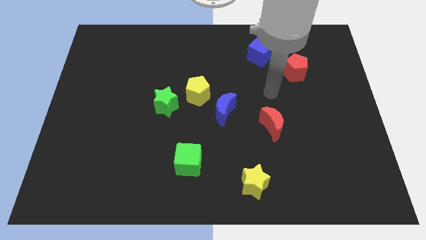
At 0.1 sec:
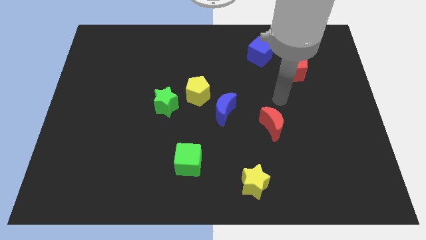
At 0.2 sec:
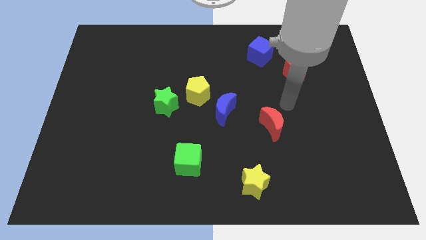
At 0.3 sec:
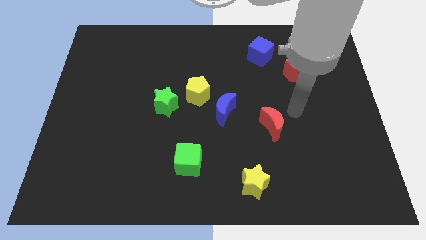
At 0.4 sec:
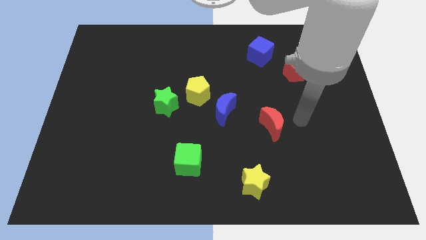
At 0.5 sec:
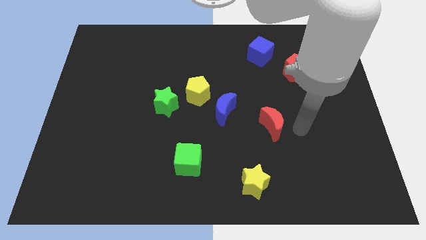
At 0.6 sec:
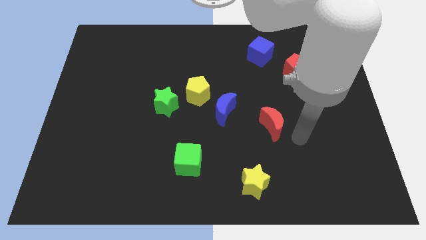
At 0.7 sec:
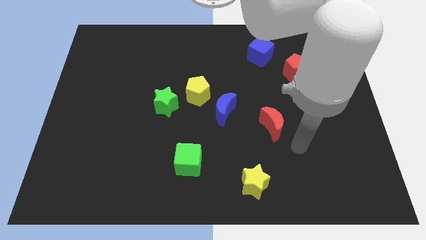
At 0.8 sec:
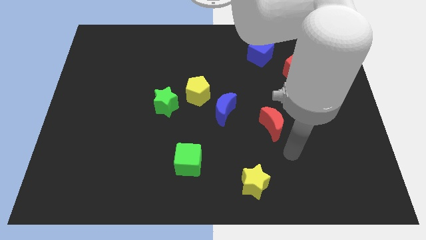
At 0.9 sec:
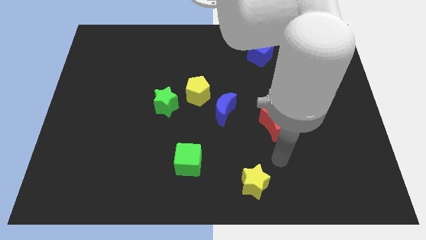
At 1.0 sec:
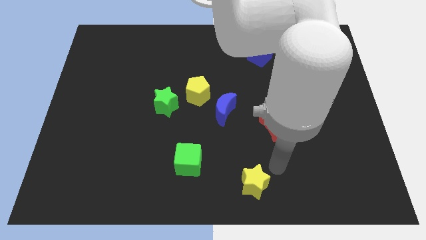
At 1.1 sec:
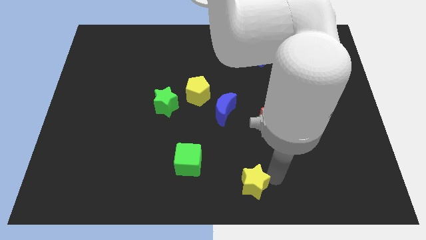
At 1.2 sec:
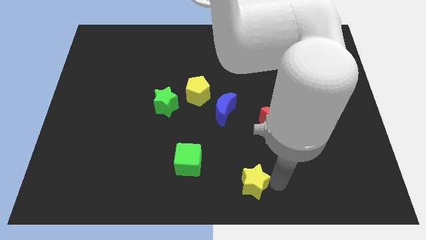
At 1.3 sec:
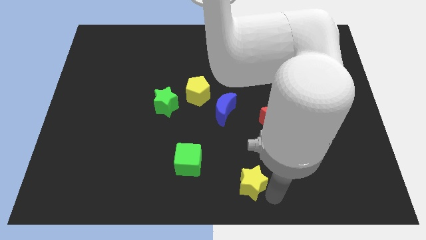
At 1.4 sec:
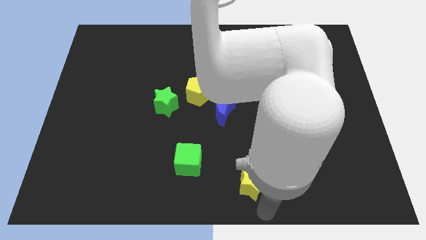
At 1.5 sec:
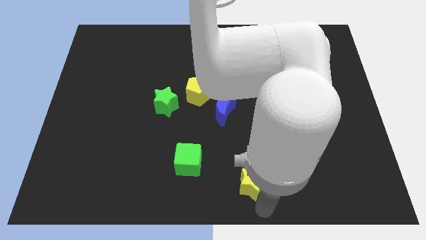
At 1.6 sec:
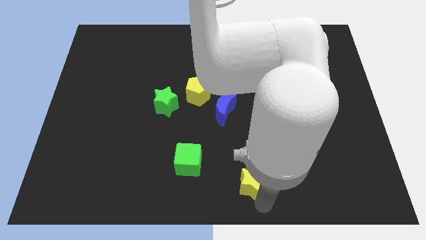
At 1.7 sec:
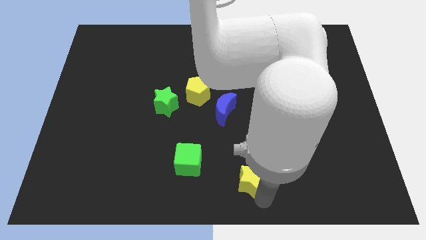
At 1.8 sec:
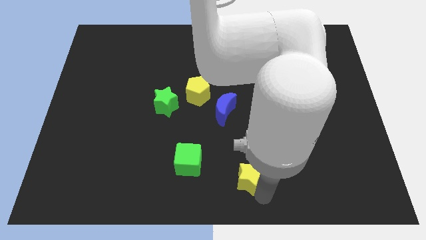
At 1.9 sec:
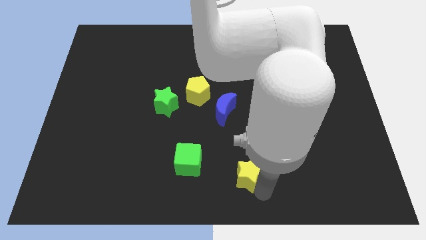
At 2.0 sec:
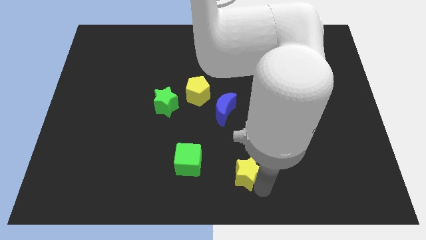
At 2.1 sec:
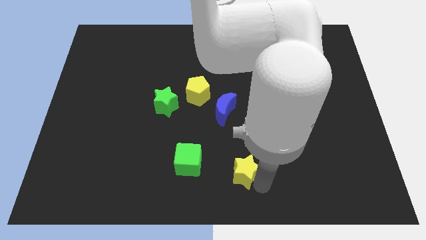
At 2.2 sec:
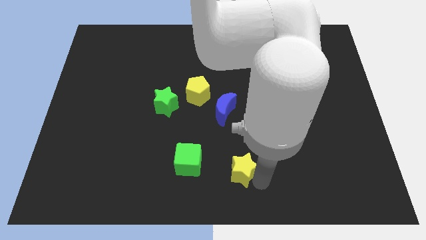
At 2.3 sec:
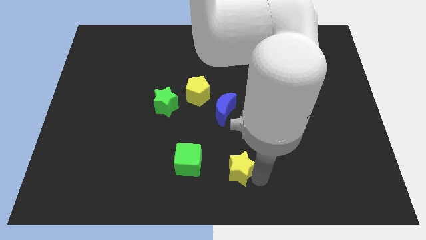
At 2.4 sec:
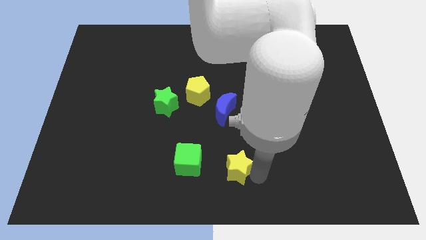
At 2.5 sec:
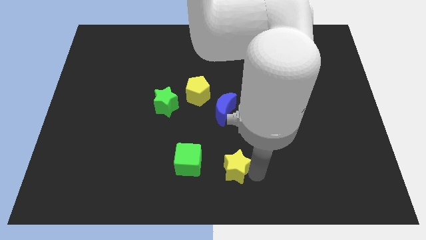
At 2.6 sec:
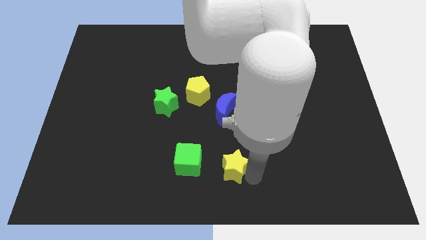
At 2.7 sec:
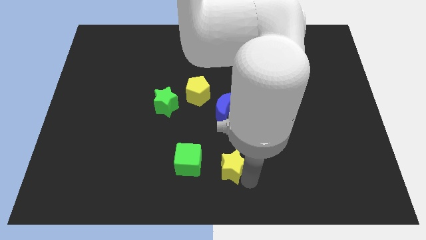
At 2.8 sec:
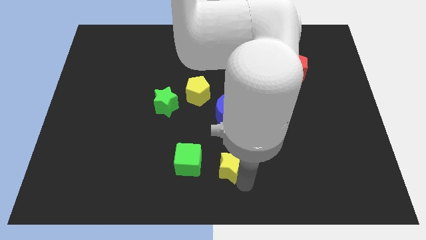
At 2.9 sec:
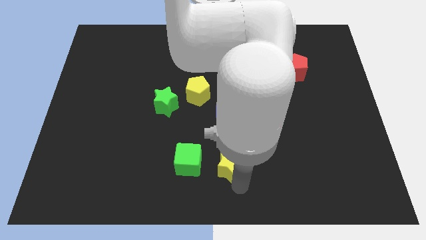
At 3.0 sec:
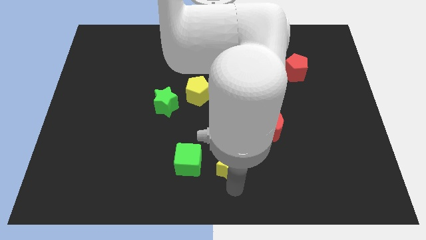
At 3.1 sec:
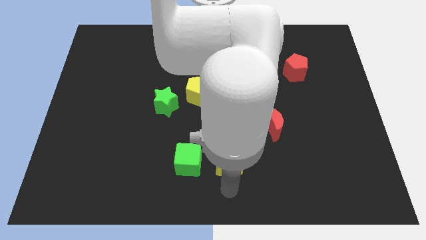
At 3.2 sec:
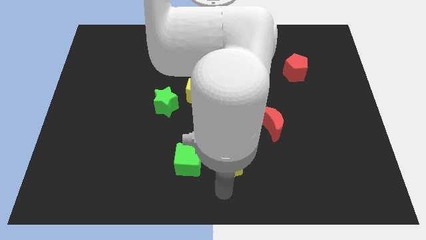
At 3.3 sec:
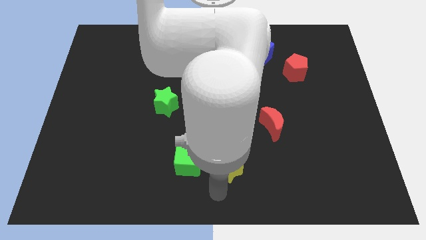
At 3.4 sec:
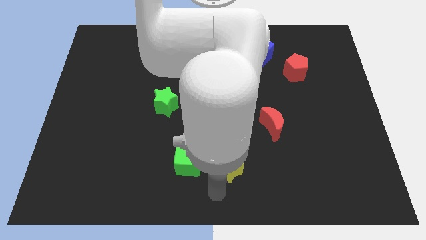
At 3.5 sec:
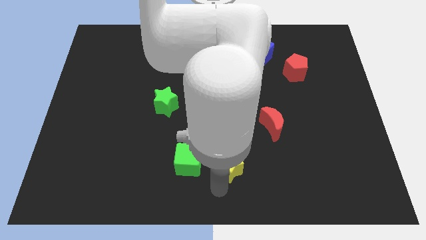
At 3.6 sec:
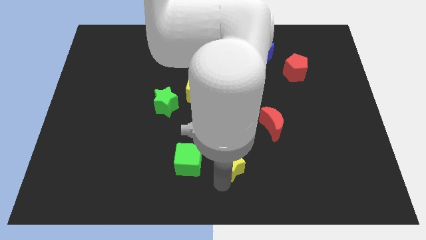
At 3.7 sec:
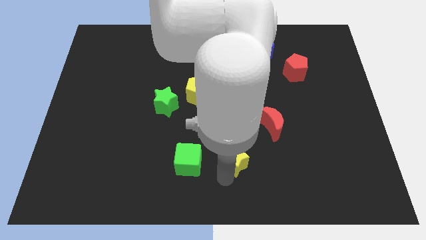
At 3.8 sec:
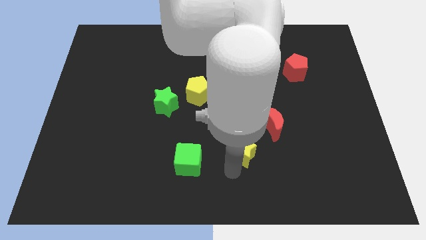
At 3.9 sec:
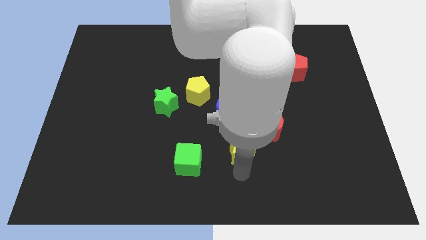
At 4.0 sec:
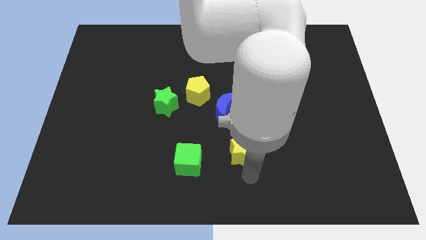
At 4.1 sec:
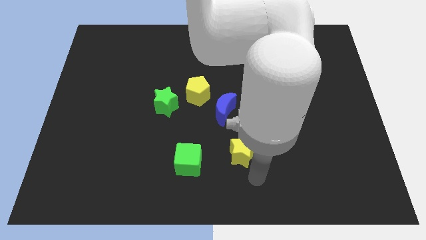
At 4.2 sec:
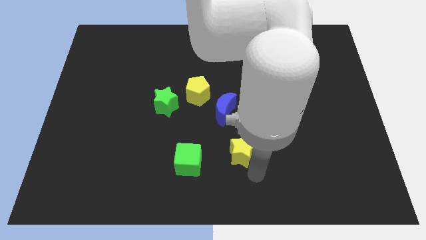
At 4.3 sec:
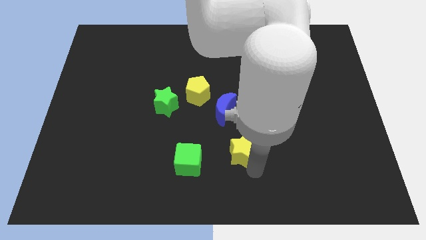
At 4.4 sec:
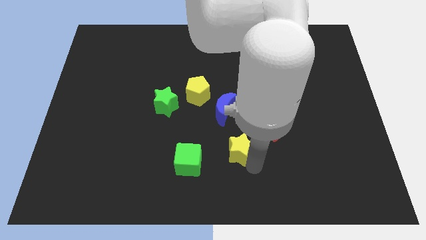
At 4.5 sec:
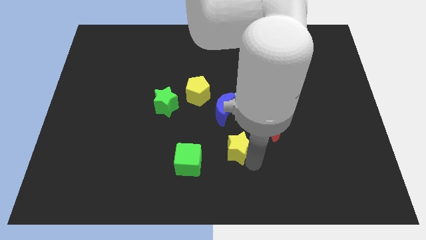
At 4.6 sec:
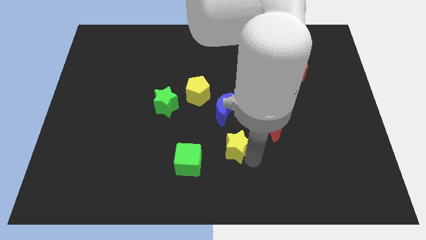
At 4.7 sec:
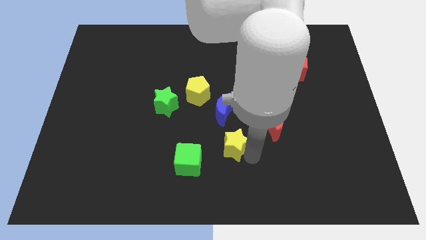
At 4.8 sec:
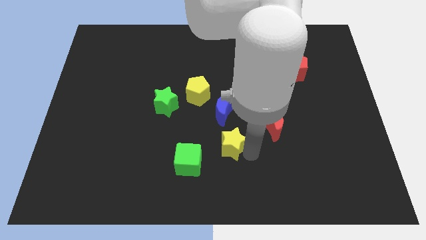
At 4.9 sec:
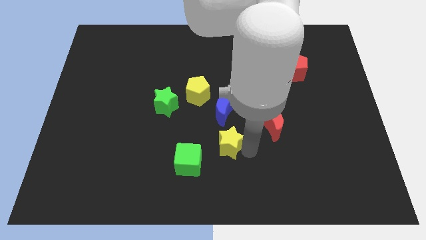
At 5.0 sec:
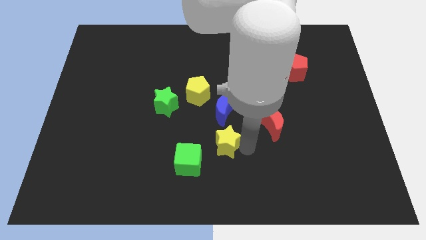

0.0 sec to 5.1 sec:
put the yellow star left of the red moon
